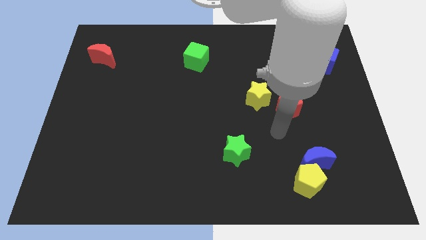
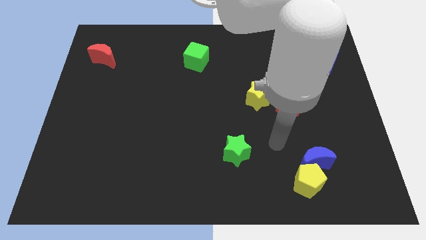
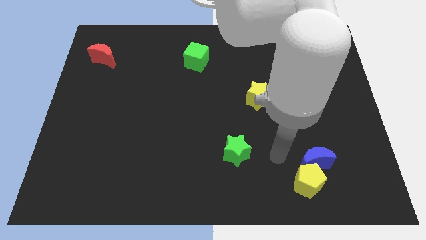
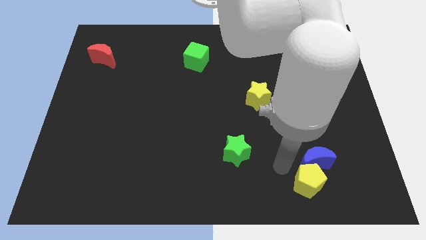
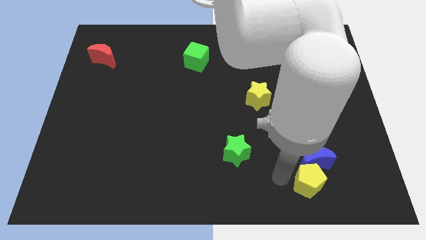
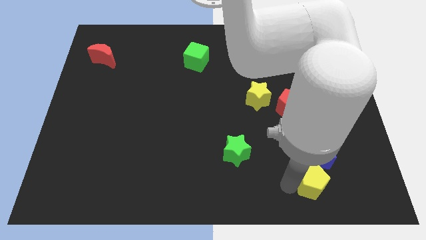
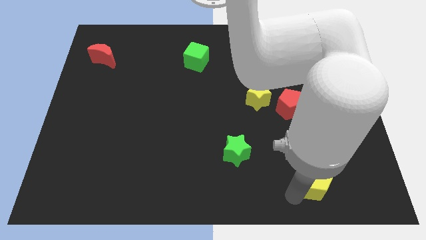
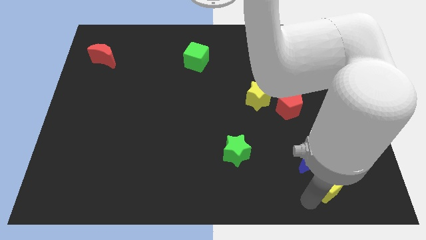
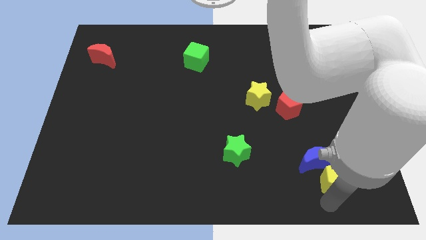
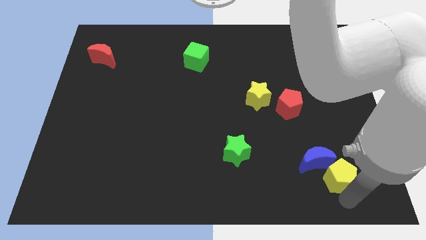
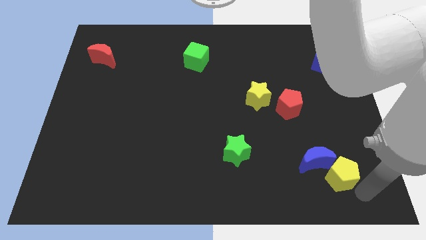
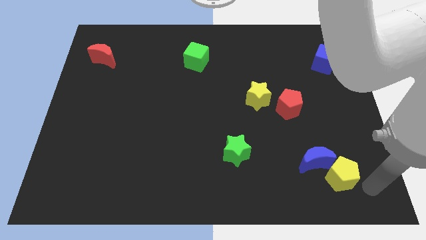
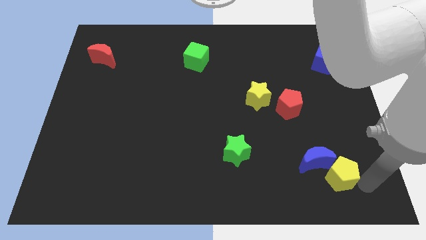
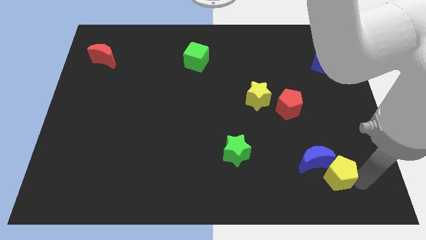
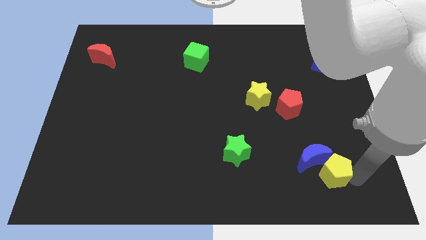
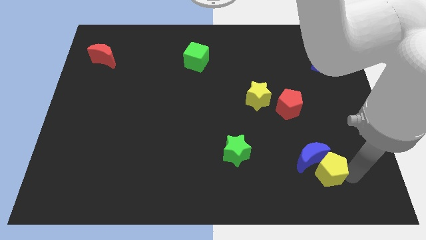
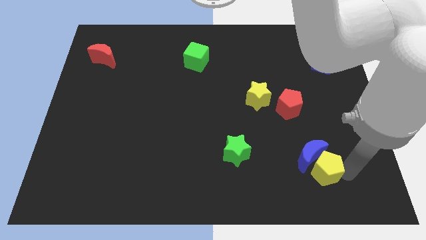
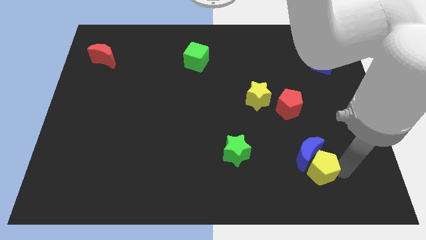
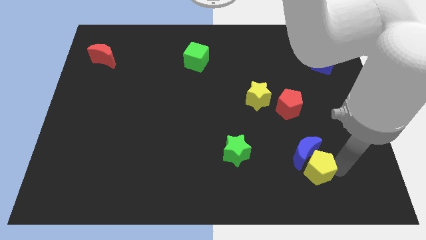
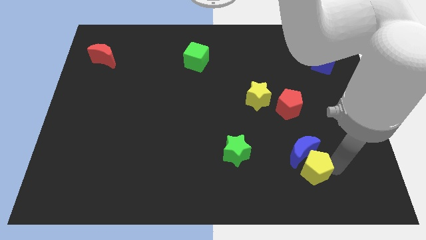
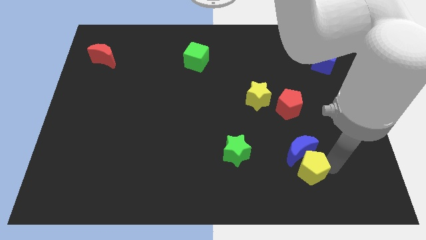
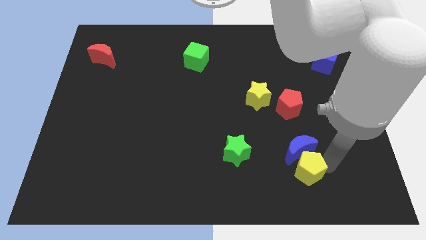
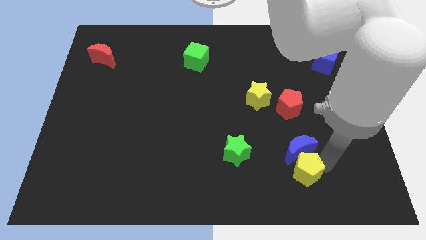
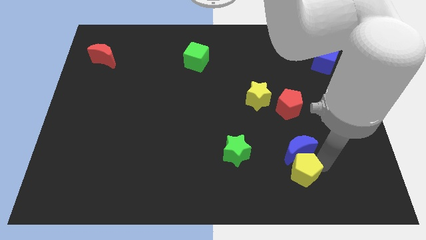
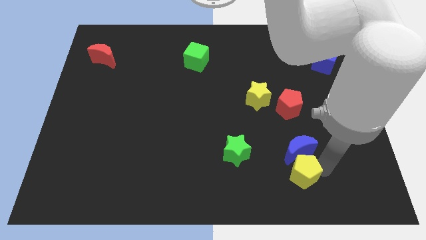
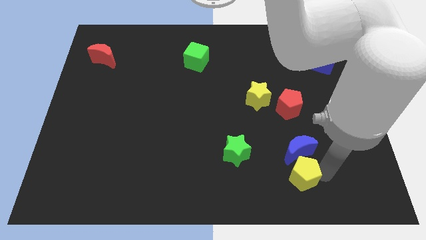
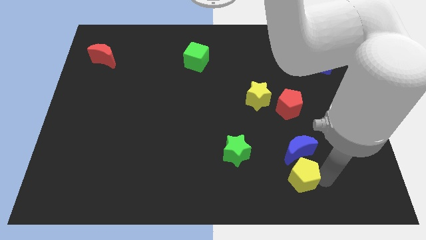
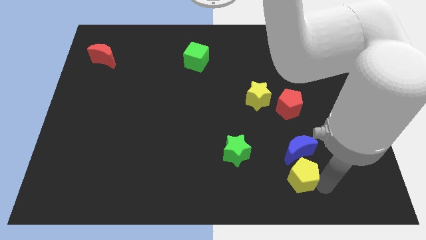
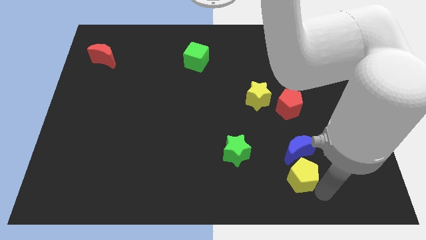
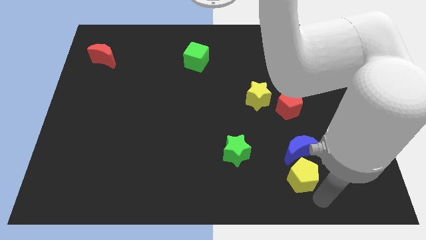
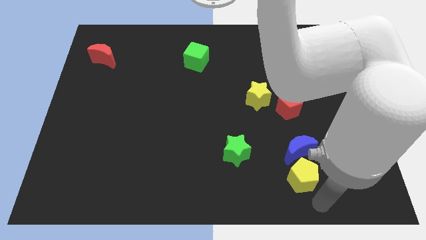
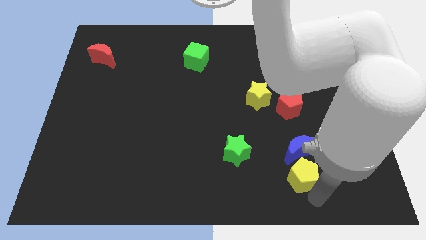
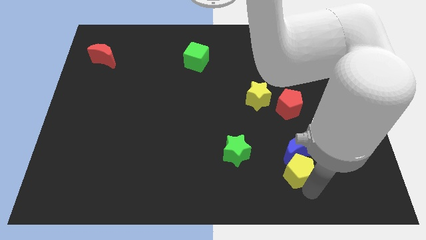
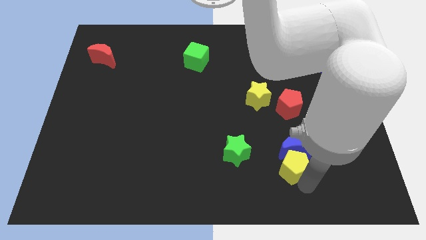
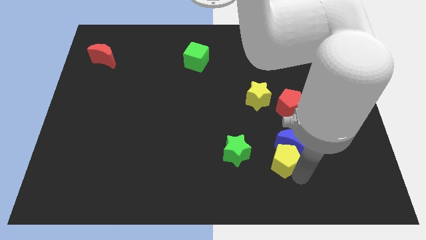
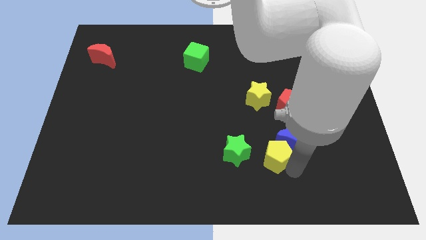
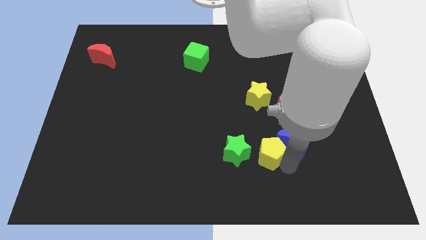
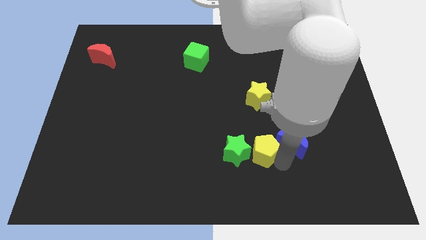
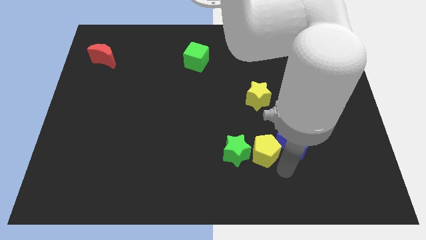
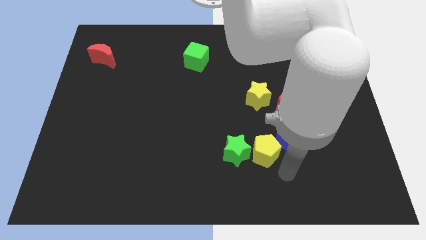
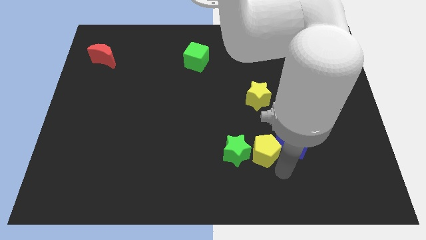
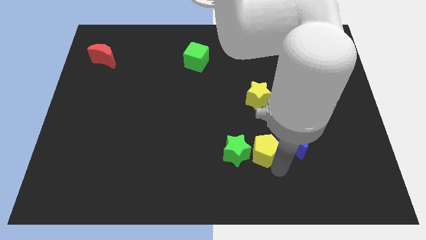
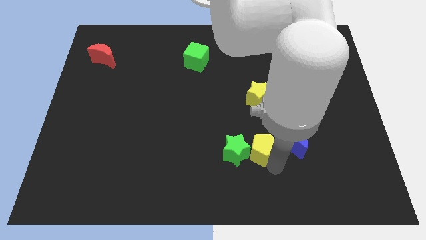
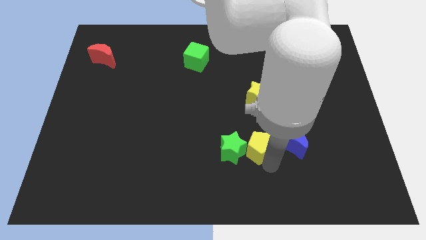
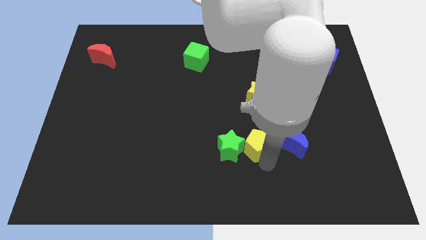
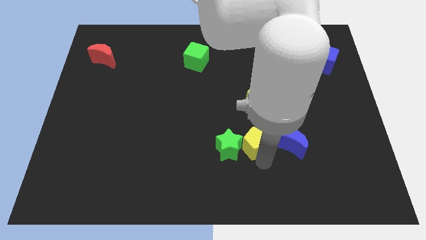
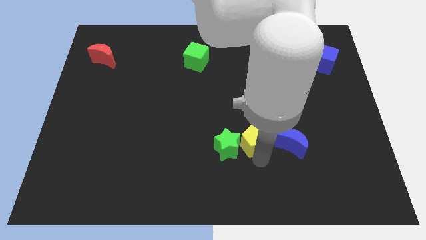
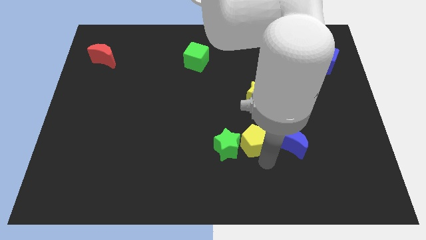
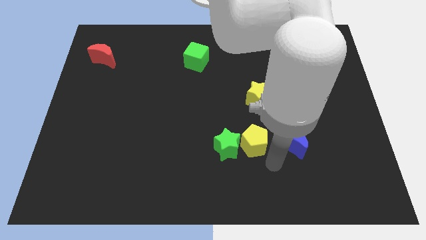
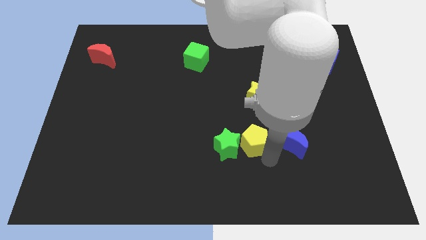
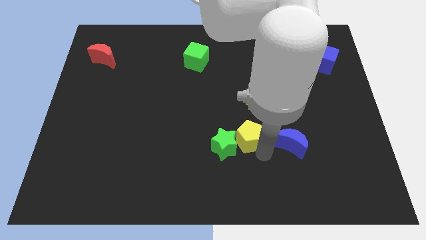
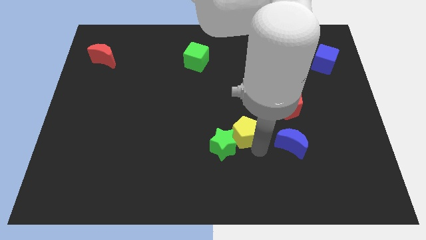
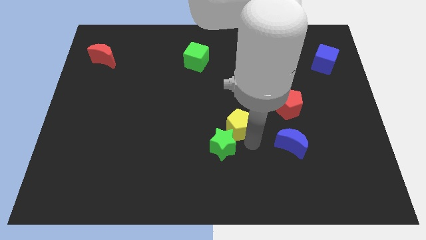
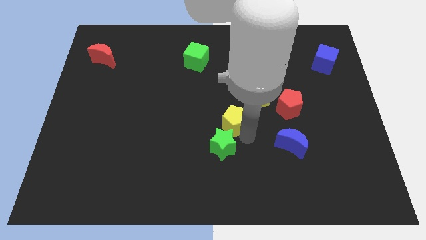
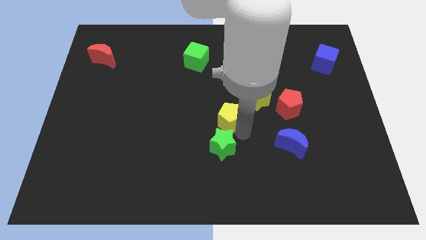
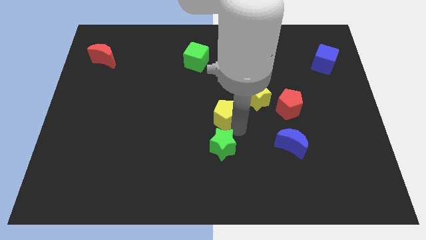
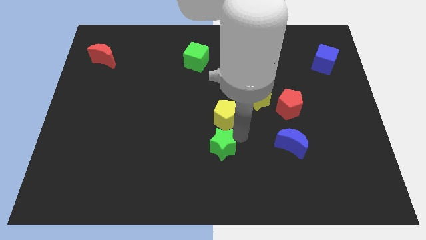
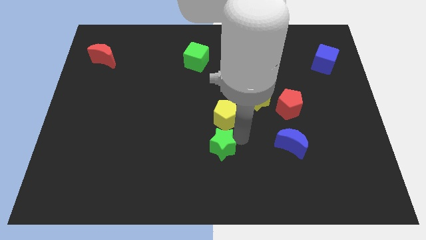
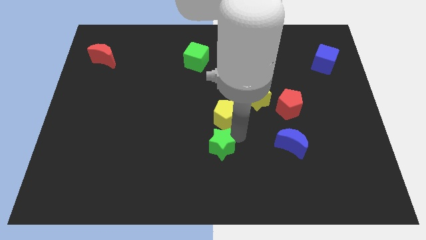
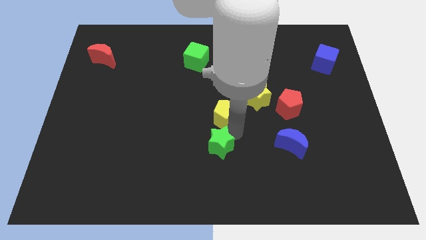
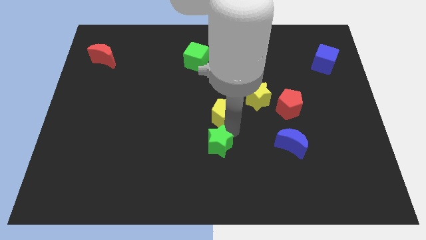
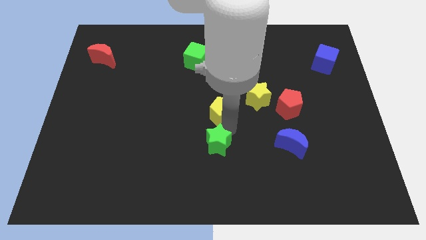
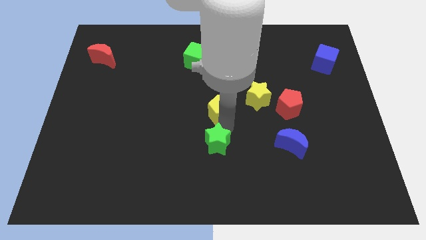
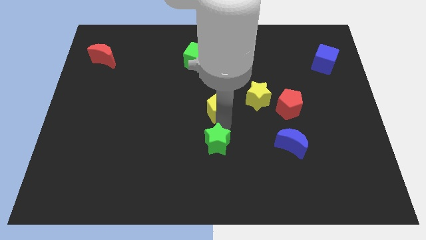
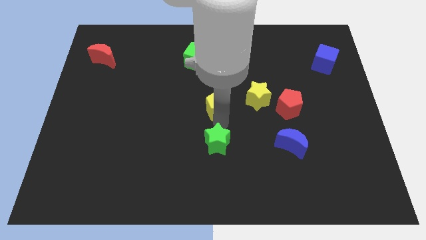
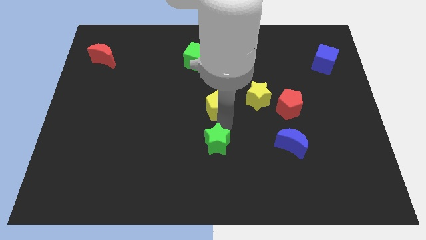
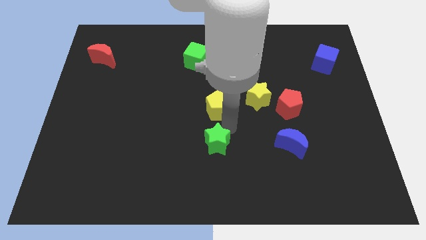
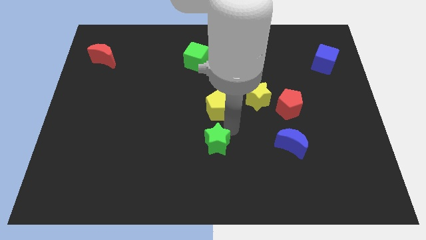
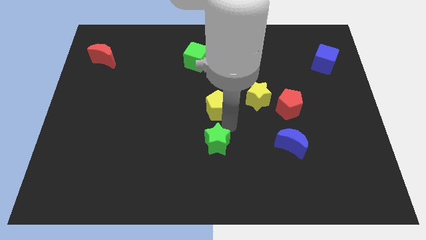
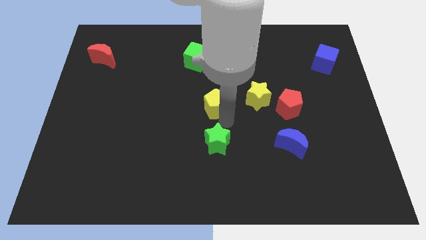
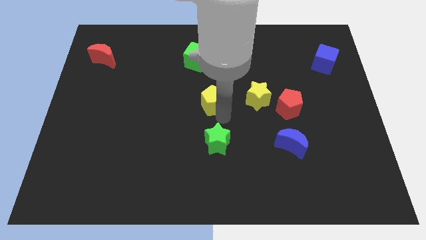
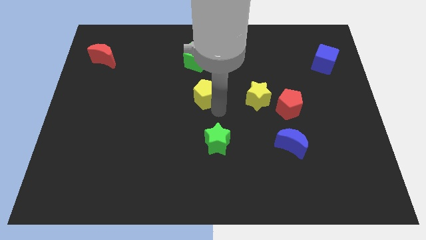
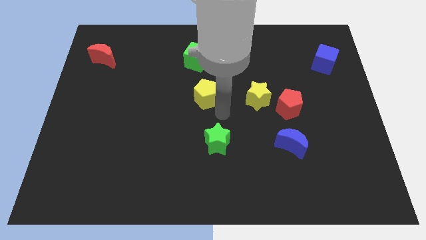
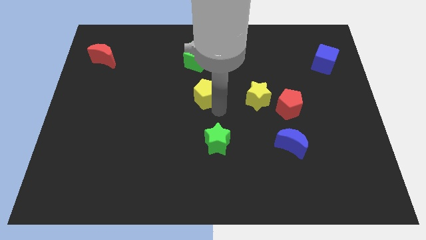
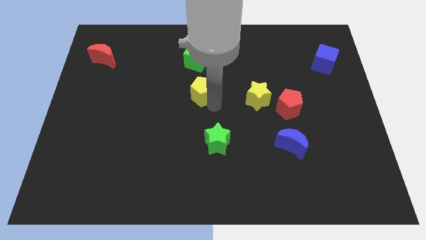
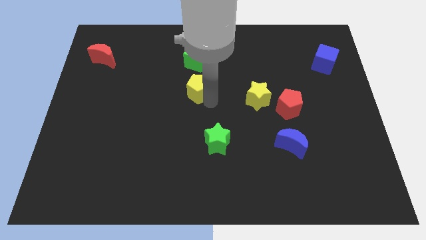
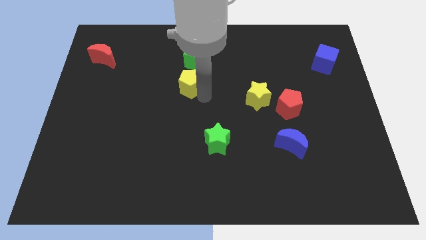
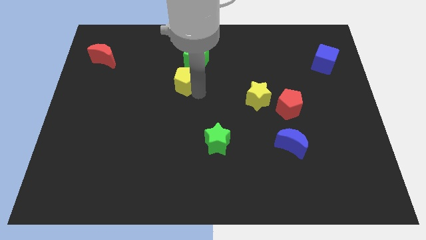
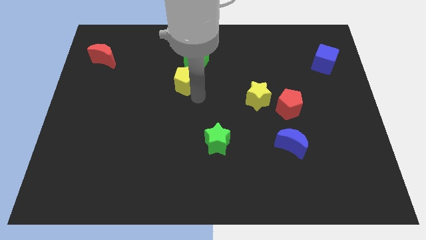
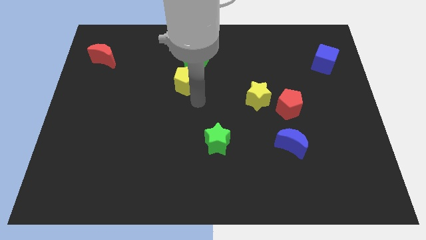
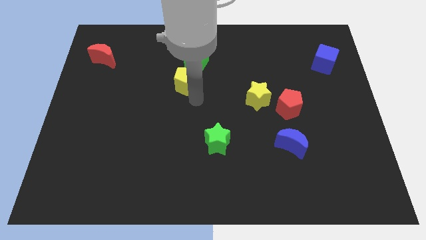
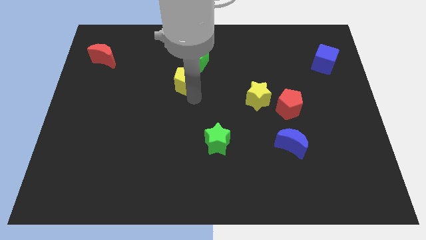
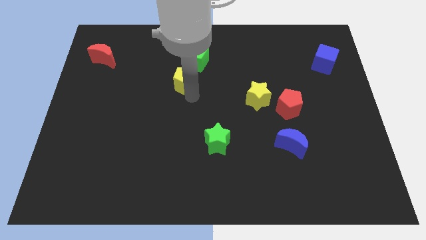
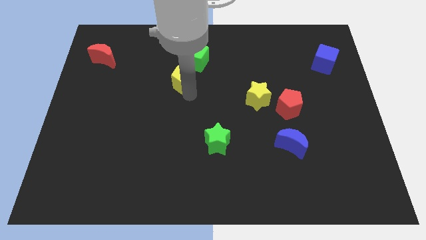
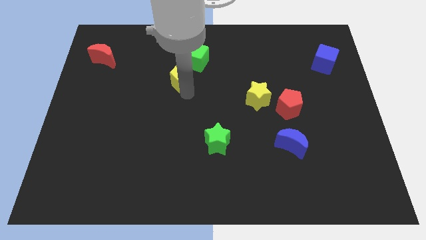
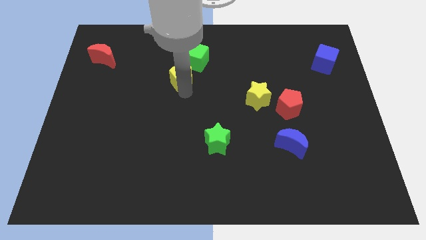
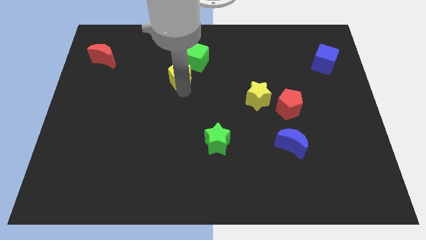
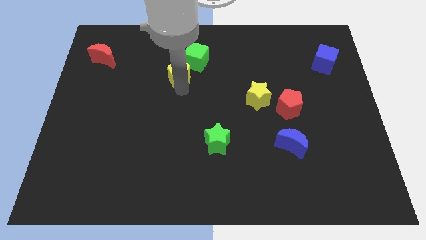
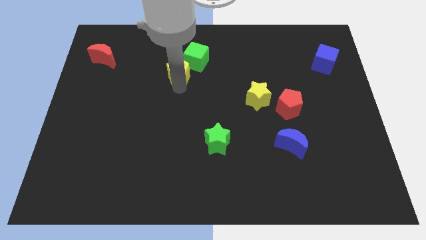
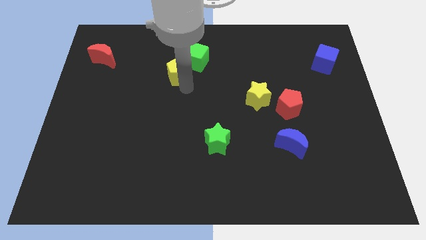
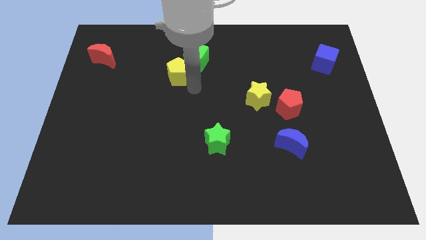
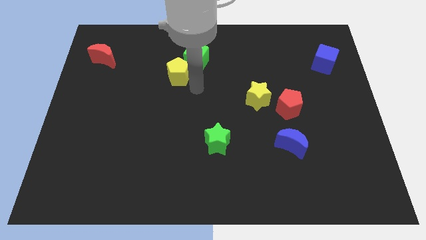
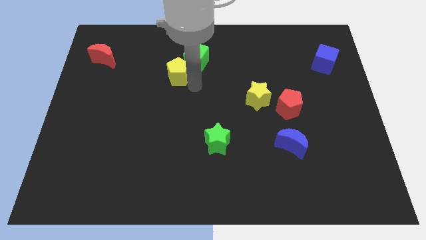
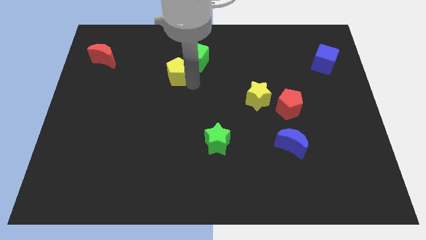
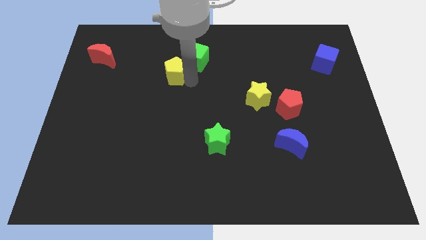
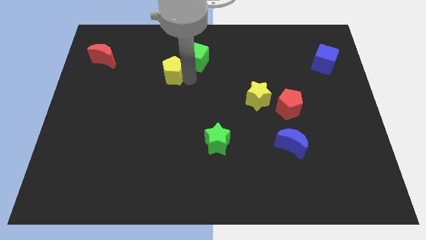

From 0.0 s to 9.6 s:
move the yellow pentagon left of the green cube
